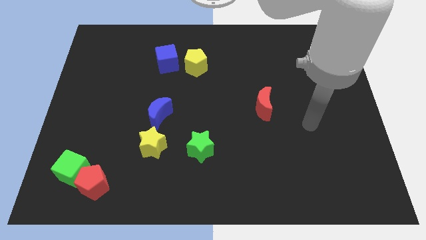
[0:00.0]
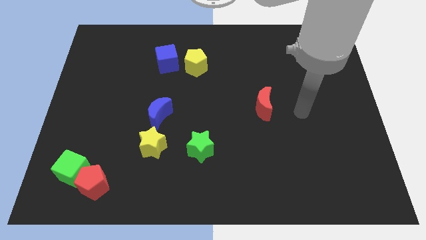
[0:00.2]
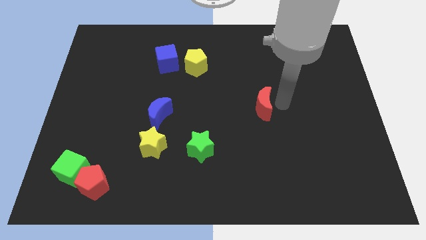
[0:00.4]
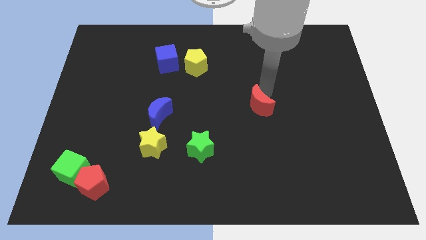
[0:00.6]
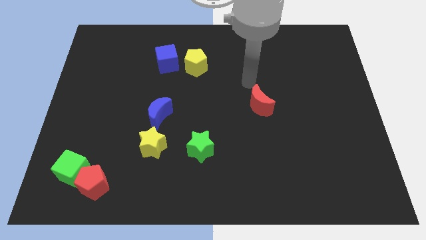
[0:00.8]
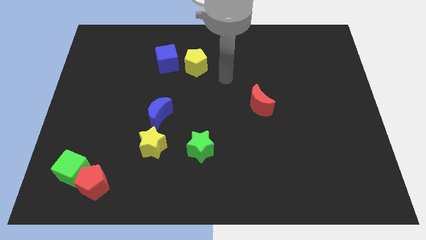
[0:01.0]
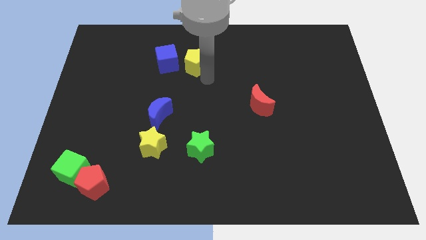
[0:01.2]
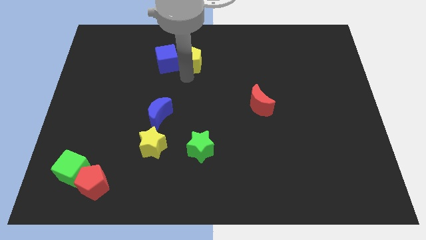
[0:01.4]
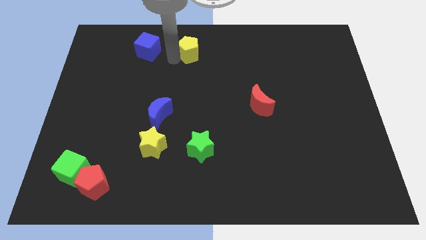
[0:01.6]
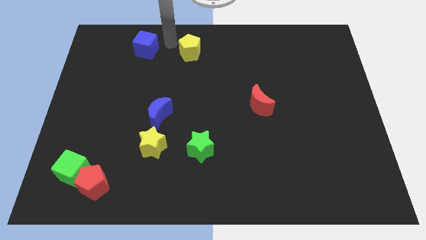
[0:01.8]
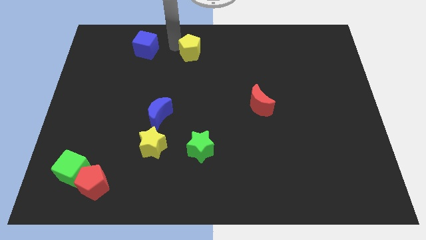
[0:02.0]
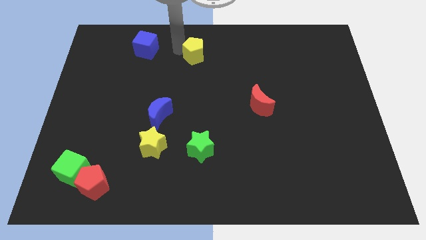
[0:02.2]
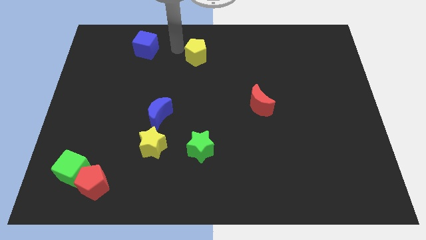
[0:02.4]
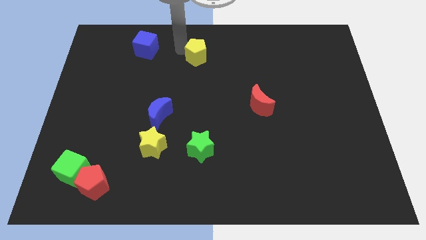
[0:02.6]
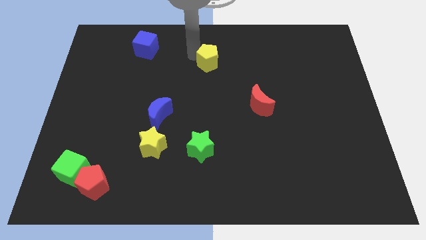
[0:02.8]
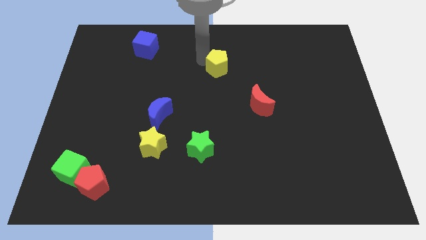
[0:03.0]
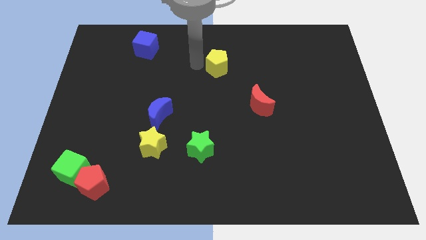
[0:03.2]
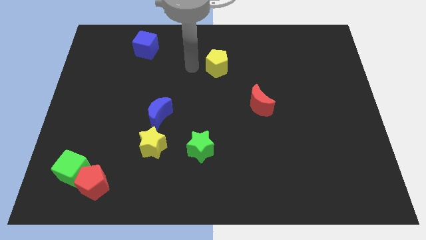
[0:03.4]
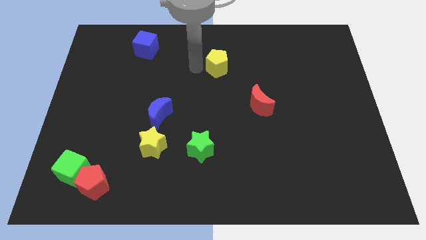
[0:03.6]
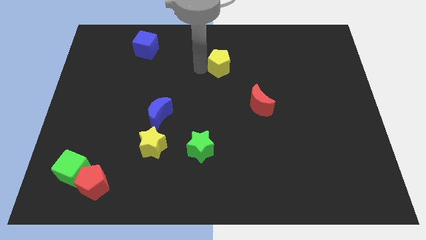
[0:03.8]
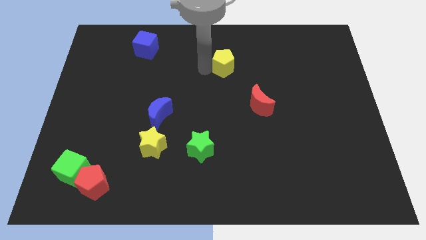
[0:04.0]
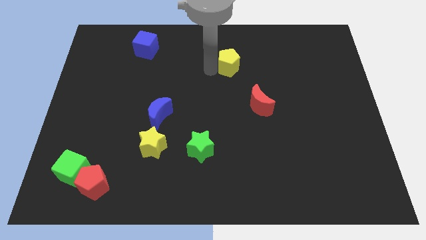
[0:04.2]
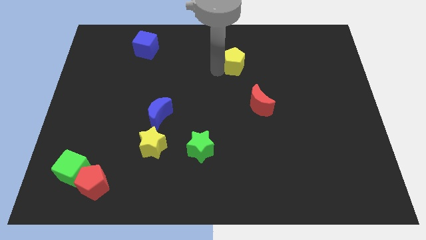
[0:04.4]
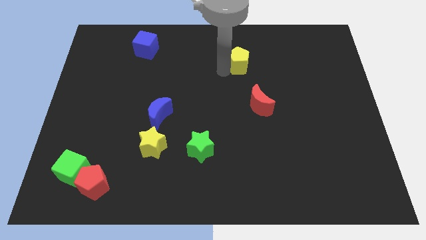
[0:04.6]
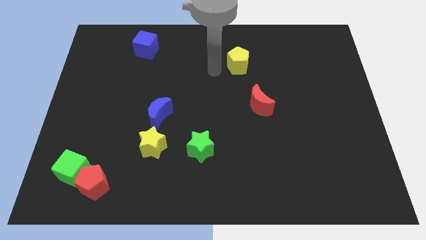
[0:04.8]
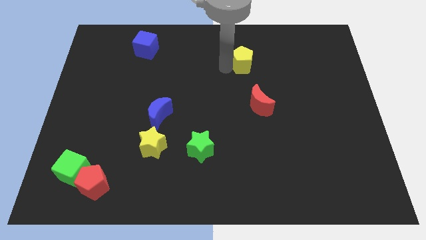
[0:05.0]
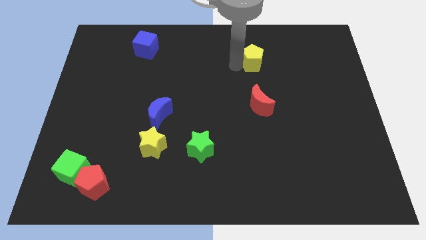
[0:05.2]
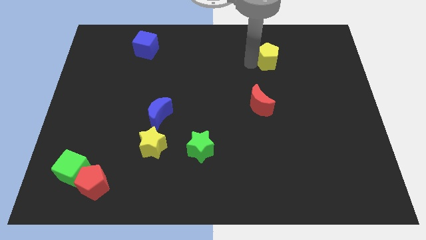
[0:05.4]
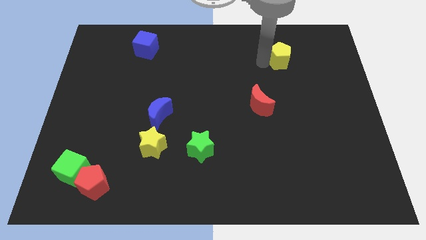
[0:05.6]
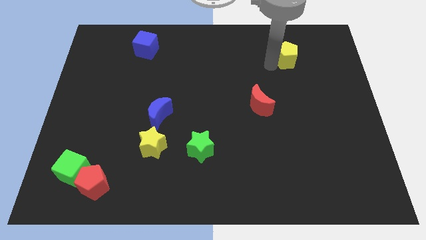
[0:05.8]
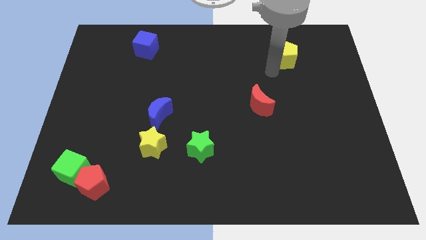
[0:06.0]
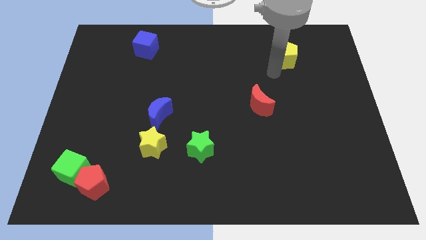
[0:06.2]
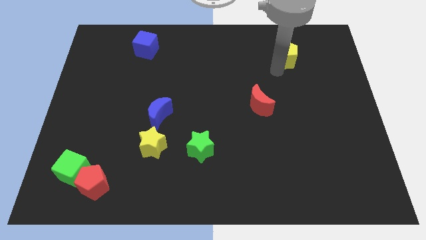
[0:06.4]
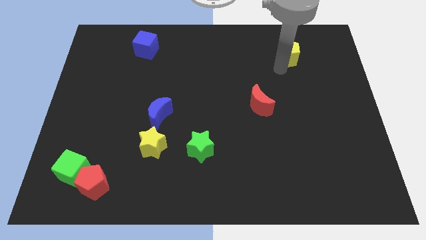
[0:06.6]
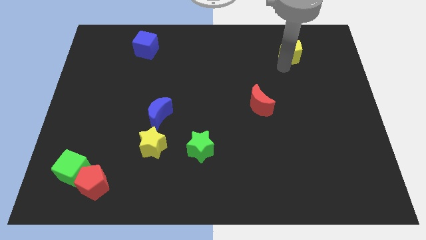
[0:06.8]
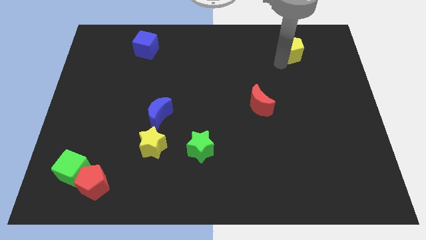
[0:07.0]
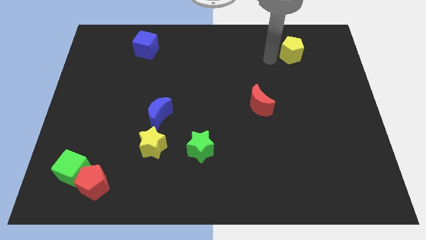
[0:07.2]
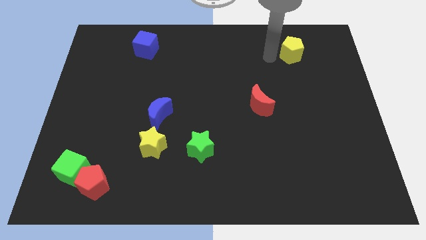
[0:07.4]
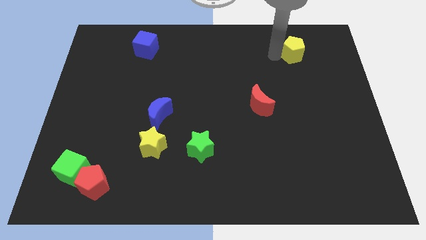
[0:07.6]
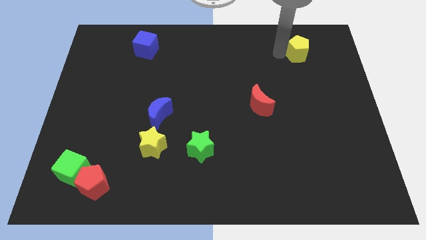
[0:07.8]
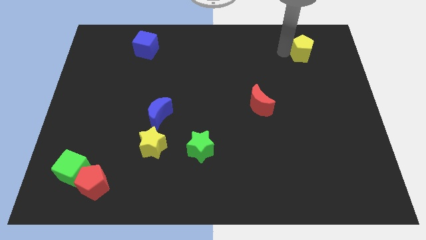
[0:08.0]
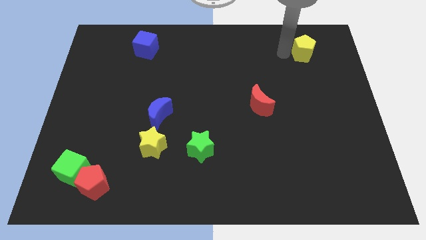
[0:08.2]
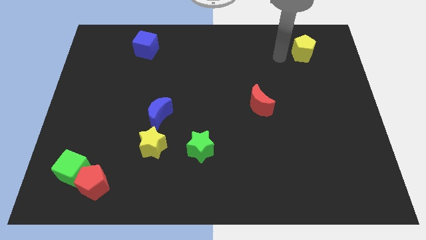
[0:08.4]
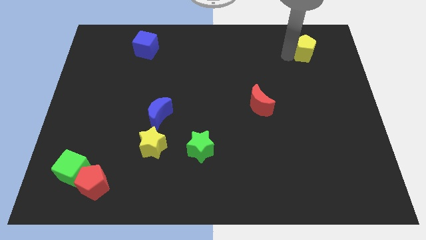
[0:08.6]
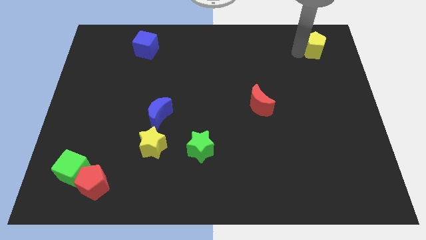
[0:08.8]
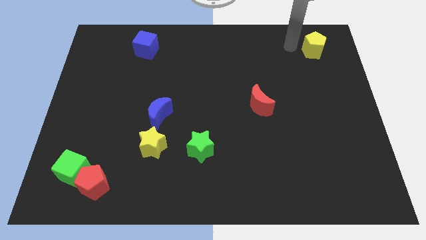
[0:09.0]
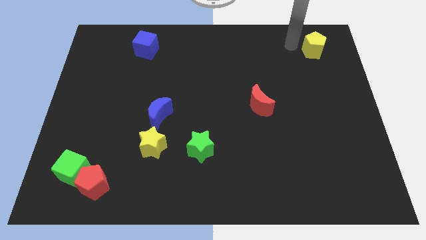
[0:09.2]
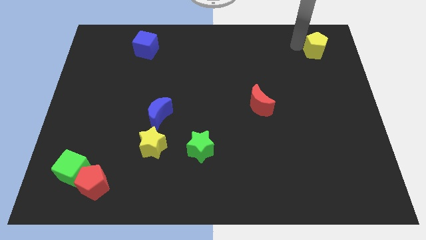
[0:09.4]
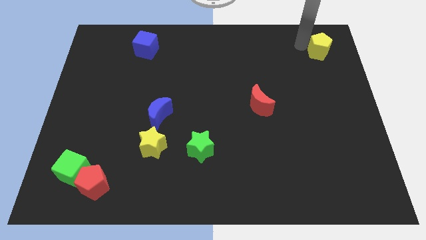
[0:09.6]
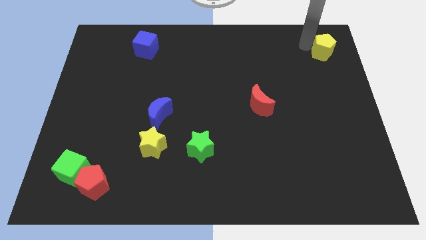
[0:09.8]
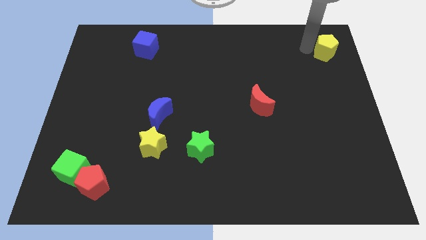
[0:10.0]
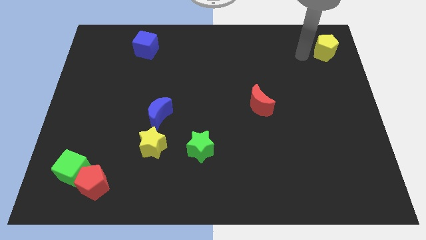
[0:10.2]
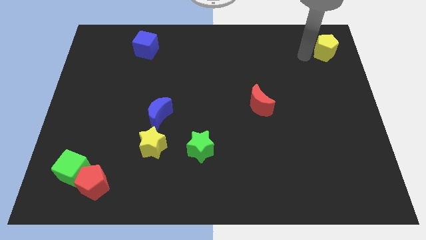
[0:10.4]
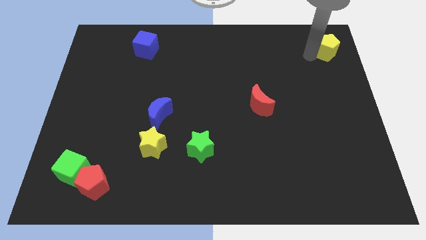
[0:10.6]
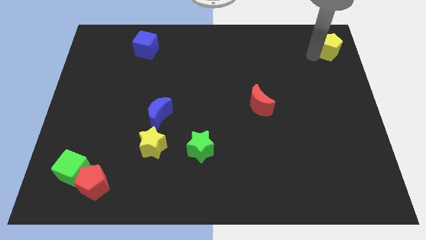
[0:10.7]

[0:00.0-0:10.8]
slide the yellow pentagon to the top right corner

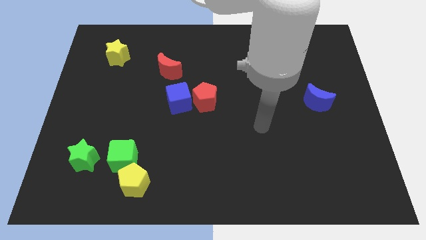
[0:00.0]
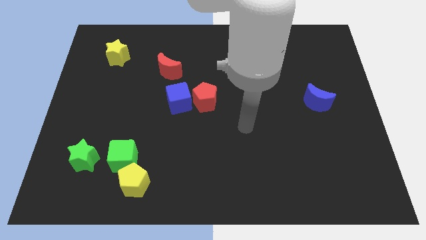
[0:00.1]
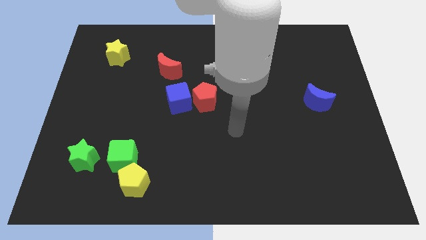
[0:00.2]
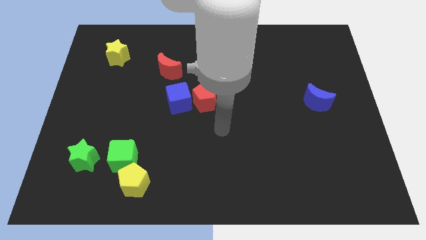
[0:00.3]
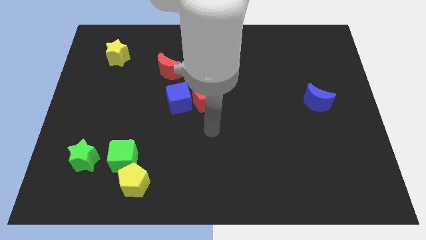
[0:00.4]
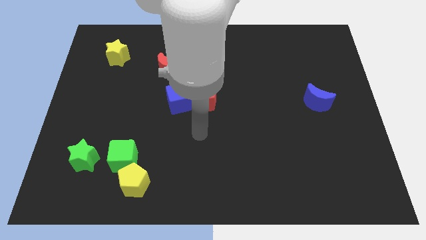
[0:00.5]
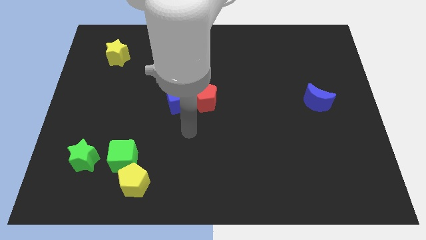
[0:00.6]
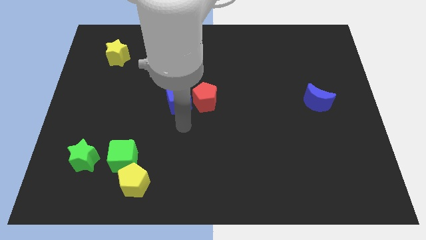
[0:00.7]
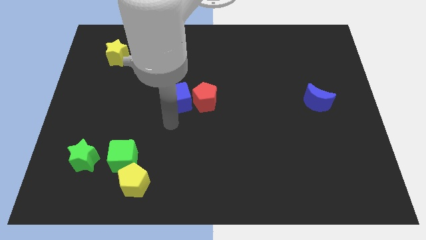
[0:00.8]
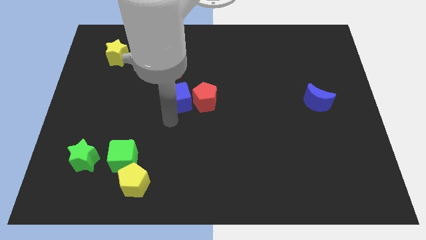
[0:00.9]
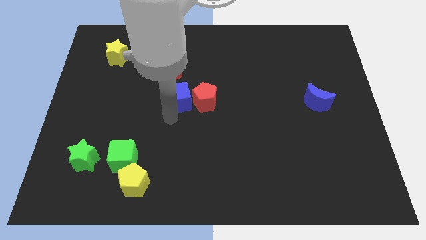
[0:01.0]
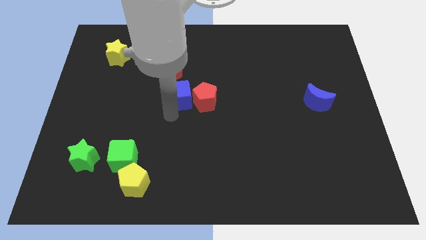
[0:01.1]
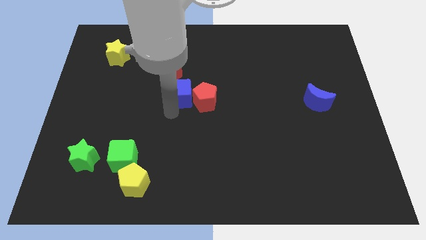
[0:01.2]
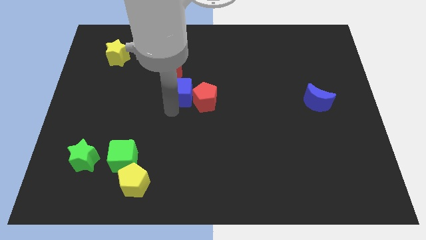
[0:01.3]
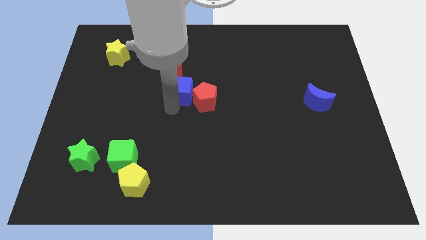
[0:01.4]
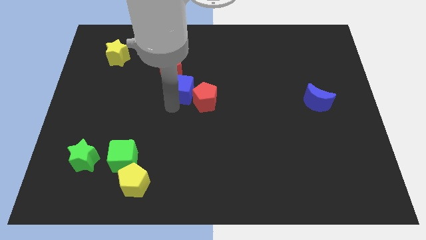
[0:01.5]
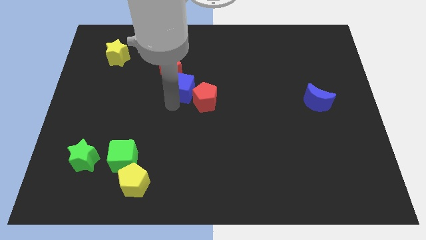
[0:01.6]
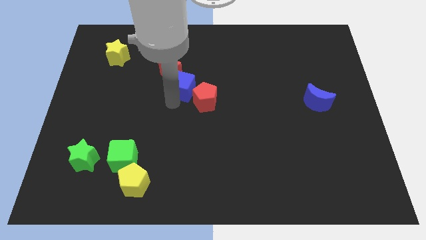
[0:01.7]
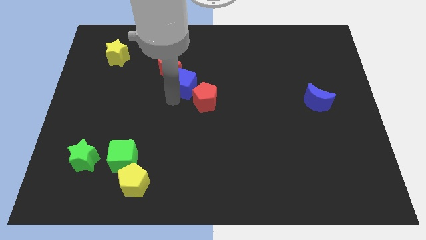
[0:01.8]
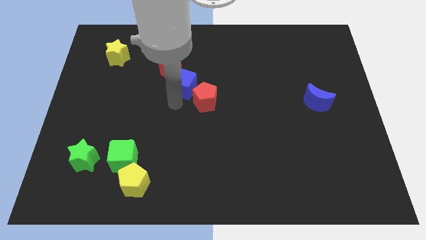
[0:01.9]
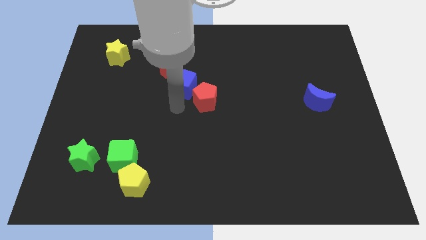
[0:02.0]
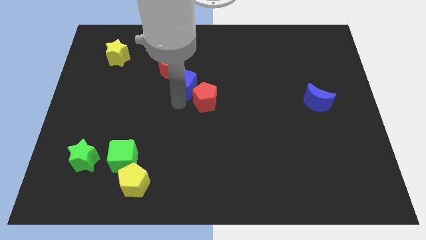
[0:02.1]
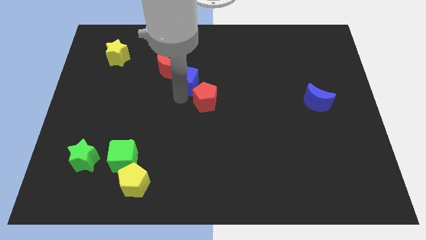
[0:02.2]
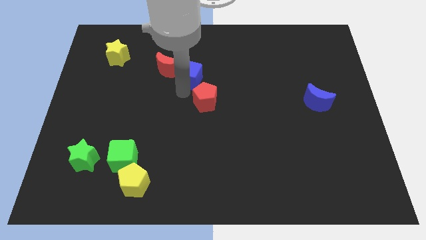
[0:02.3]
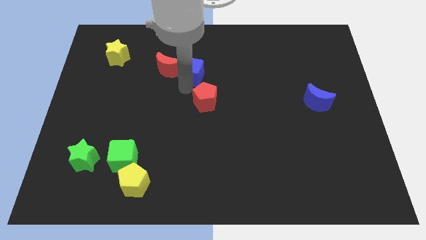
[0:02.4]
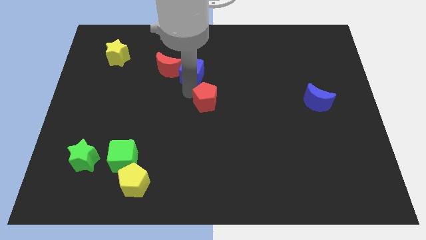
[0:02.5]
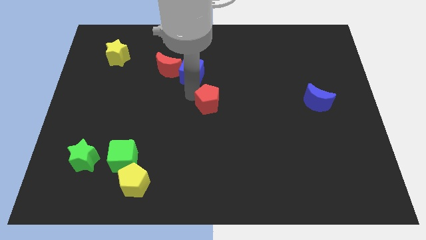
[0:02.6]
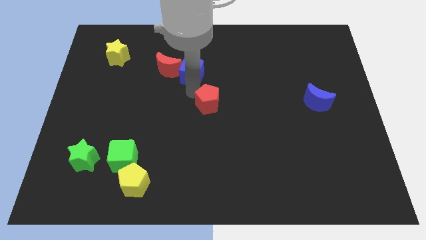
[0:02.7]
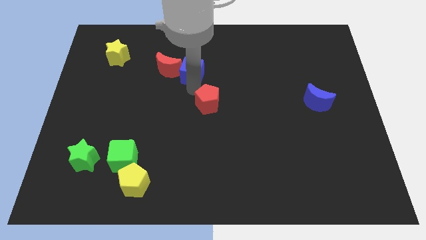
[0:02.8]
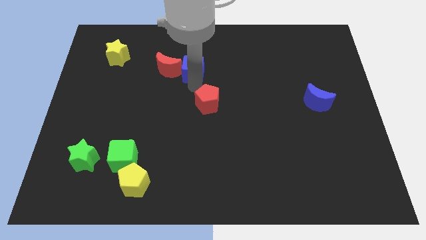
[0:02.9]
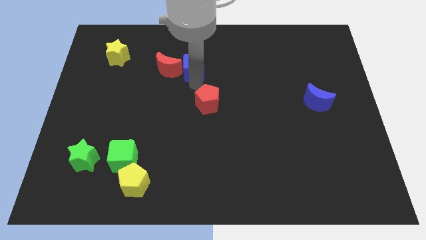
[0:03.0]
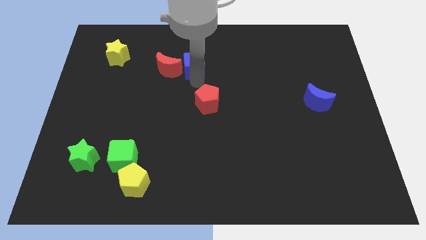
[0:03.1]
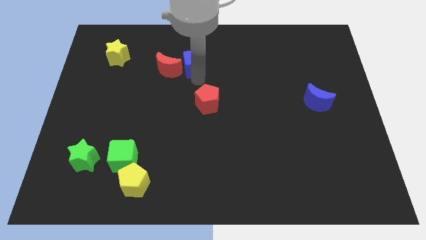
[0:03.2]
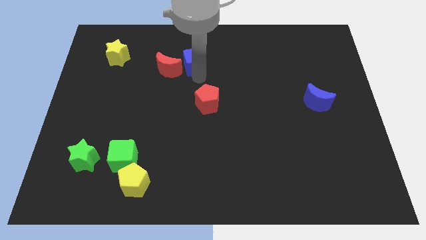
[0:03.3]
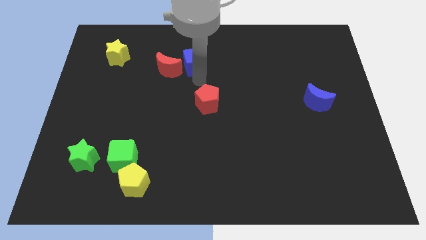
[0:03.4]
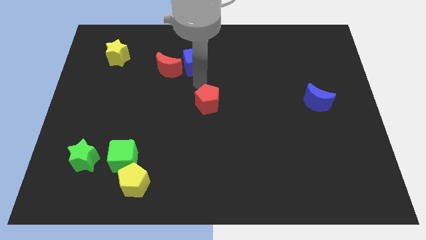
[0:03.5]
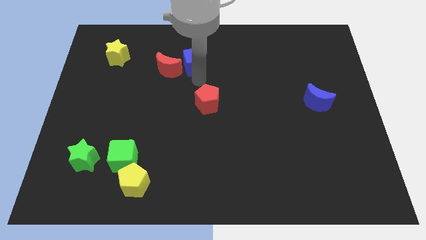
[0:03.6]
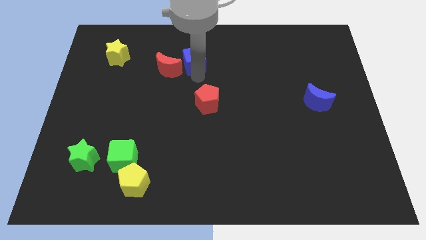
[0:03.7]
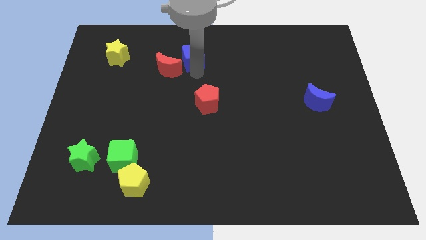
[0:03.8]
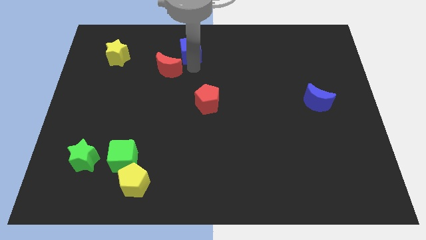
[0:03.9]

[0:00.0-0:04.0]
move the blue cube to the top
